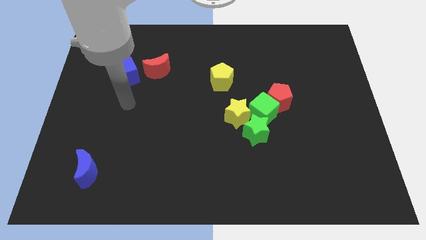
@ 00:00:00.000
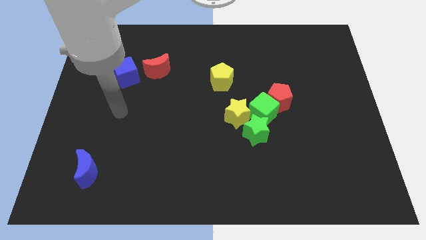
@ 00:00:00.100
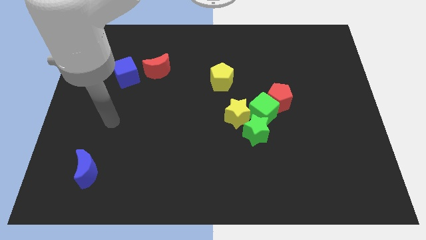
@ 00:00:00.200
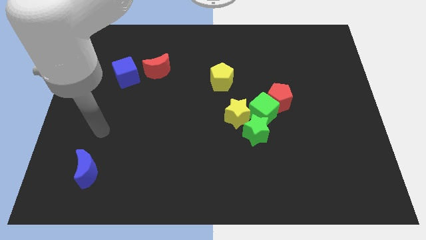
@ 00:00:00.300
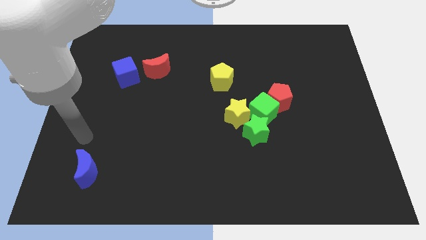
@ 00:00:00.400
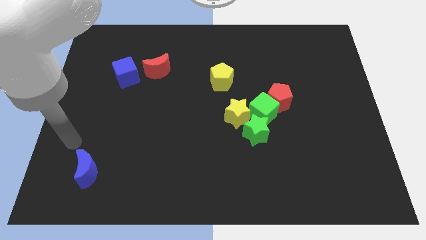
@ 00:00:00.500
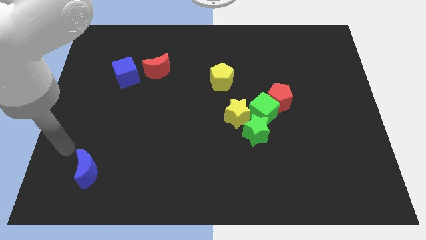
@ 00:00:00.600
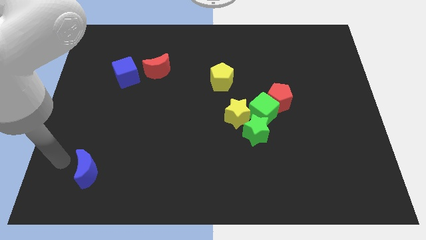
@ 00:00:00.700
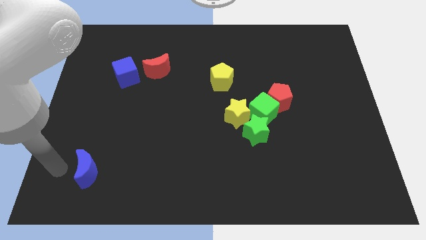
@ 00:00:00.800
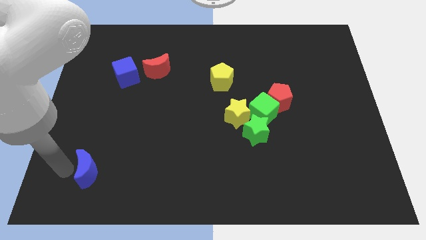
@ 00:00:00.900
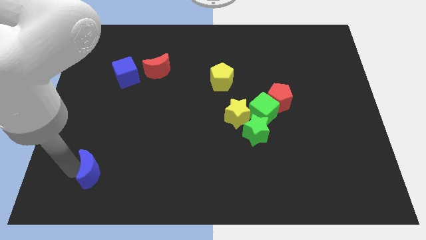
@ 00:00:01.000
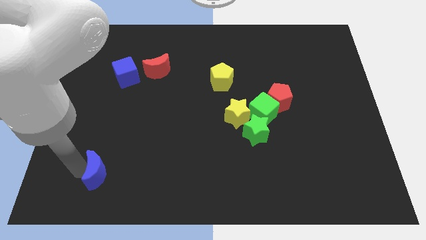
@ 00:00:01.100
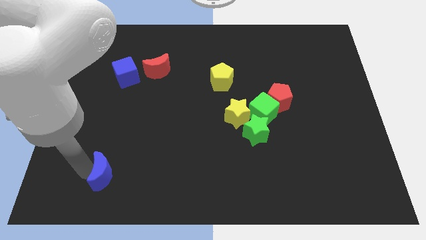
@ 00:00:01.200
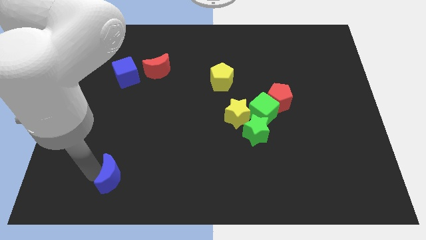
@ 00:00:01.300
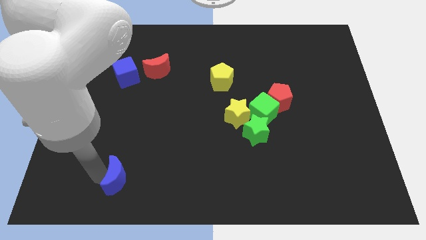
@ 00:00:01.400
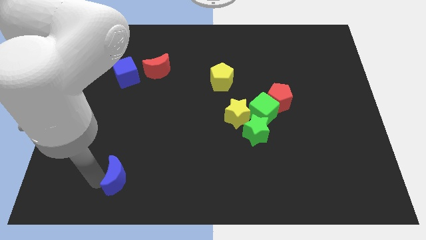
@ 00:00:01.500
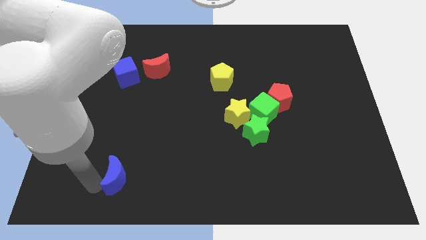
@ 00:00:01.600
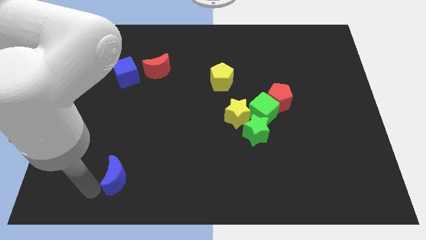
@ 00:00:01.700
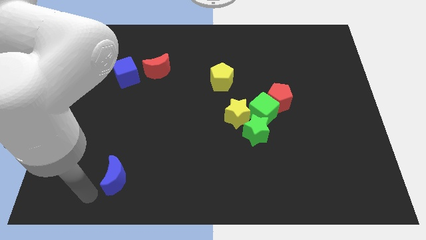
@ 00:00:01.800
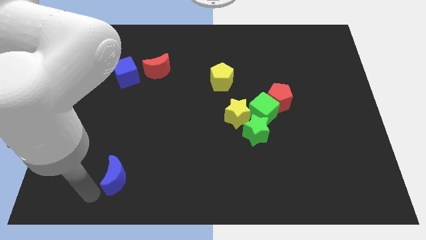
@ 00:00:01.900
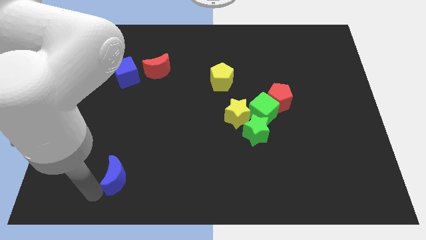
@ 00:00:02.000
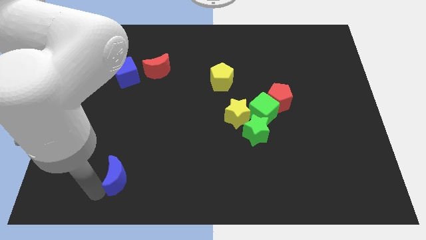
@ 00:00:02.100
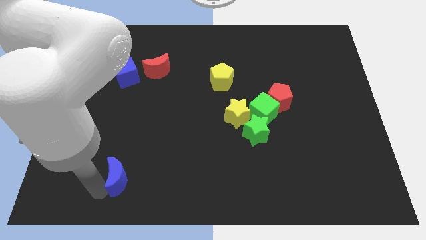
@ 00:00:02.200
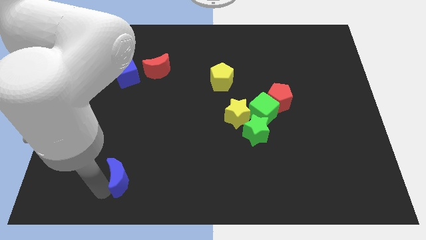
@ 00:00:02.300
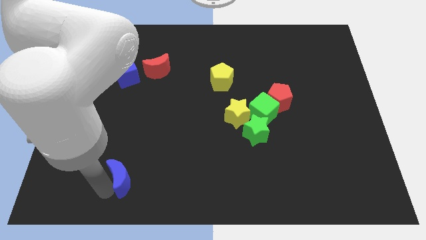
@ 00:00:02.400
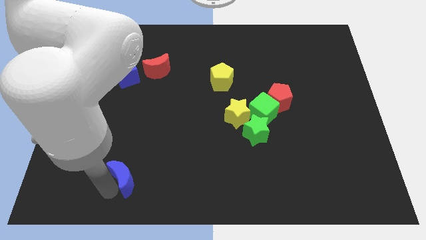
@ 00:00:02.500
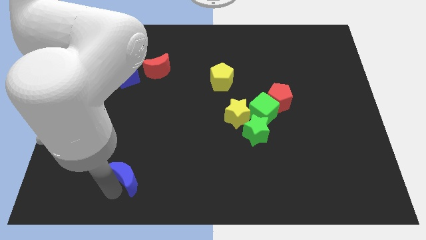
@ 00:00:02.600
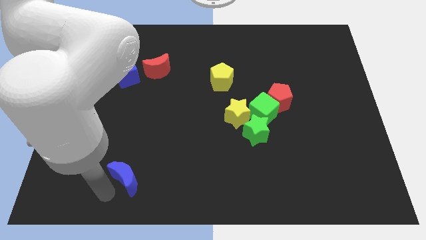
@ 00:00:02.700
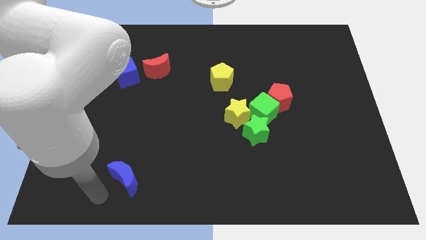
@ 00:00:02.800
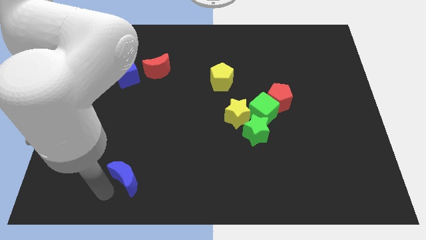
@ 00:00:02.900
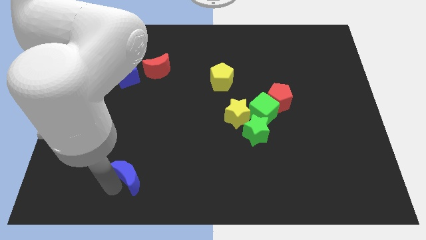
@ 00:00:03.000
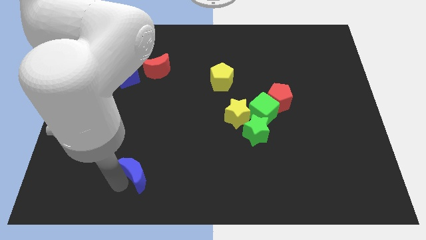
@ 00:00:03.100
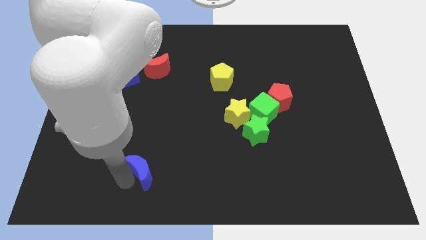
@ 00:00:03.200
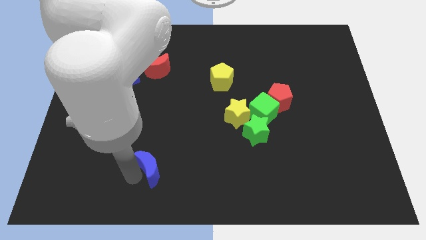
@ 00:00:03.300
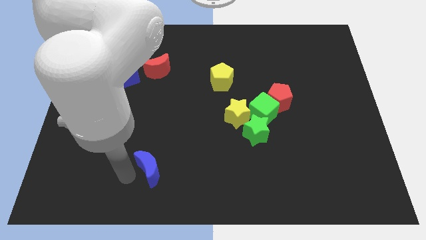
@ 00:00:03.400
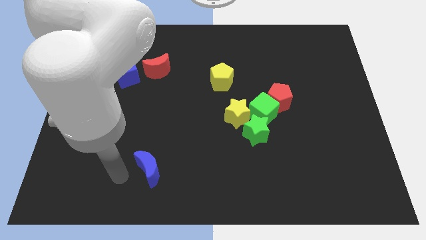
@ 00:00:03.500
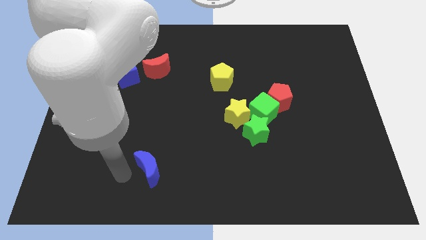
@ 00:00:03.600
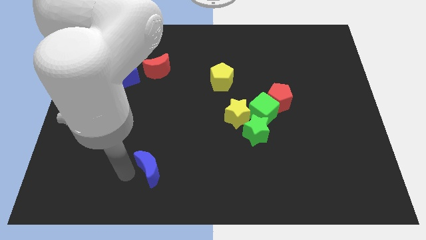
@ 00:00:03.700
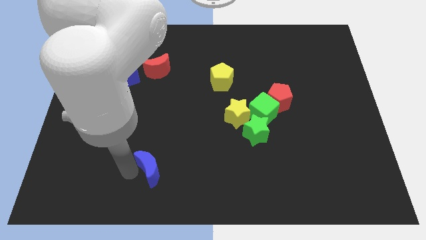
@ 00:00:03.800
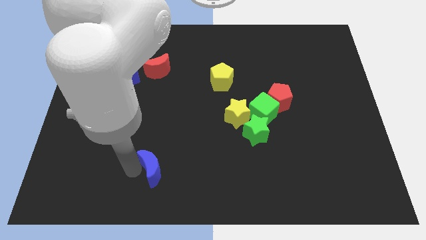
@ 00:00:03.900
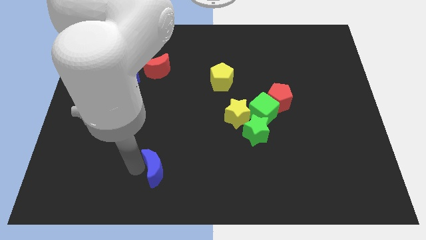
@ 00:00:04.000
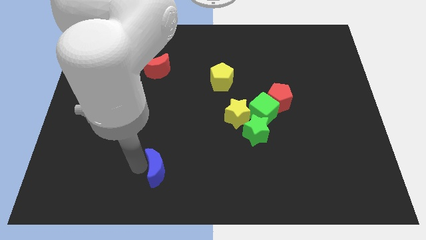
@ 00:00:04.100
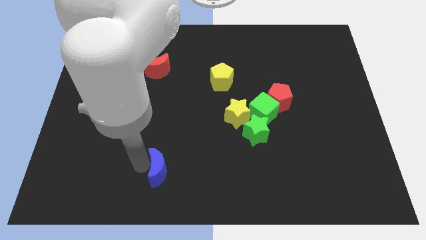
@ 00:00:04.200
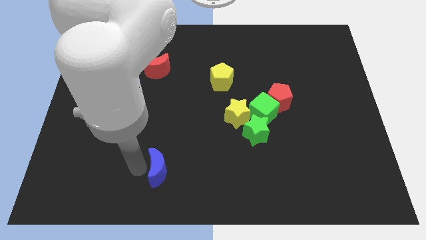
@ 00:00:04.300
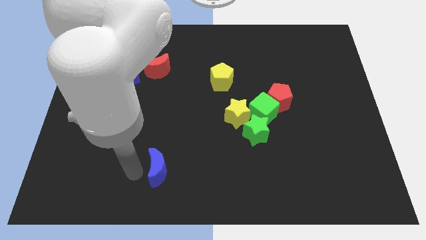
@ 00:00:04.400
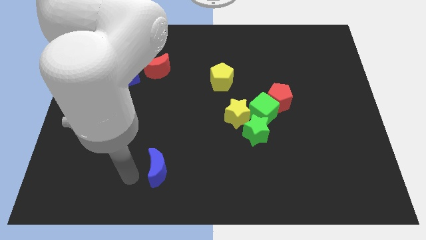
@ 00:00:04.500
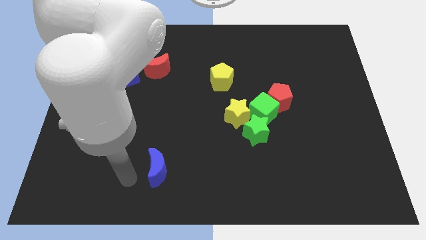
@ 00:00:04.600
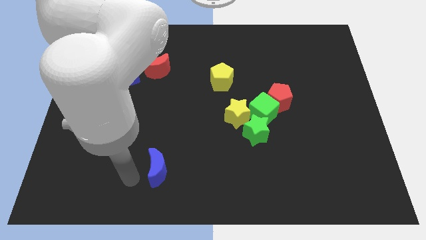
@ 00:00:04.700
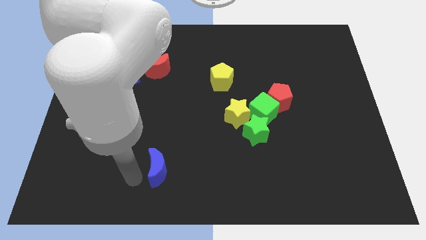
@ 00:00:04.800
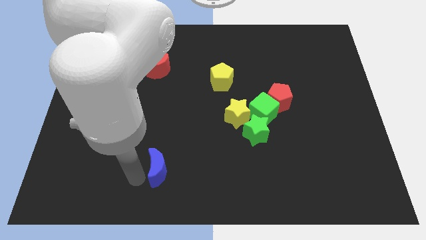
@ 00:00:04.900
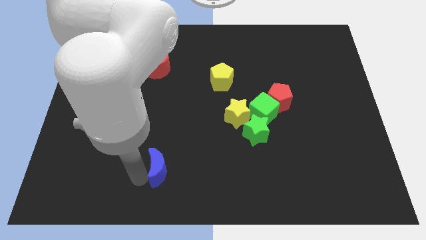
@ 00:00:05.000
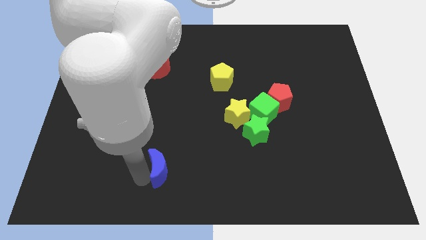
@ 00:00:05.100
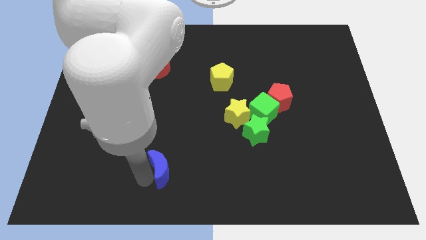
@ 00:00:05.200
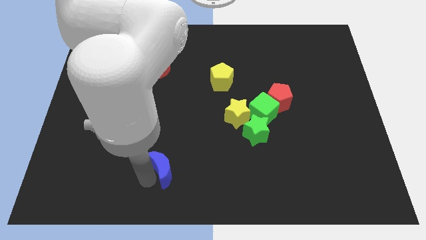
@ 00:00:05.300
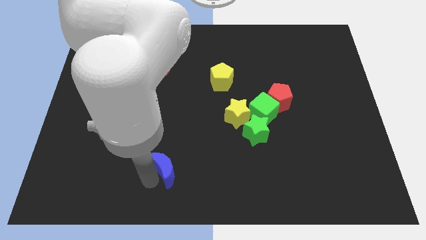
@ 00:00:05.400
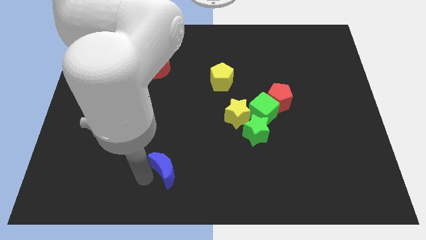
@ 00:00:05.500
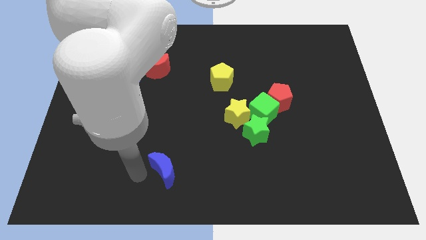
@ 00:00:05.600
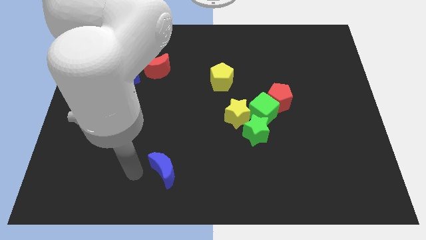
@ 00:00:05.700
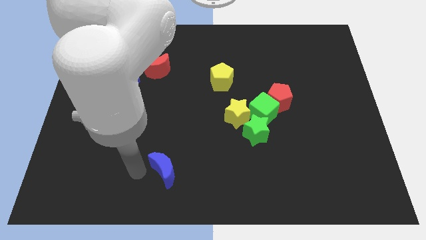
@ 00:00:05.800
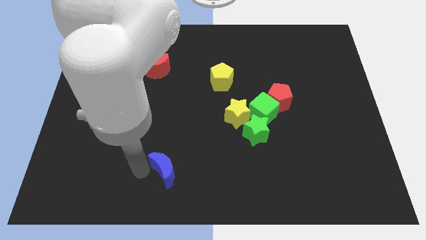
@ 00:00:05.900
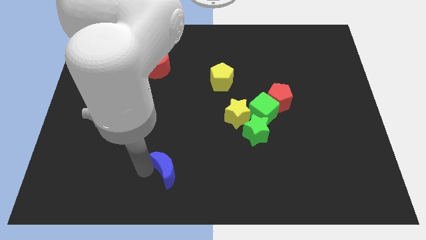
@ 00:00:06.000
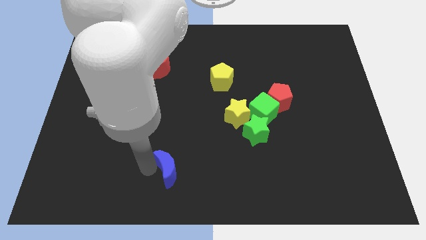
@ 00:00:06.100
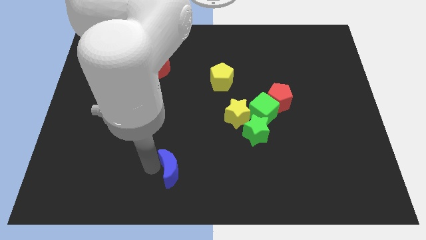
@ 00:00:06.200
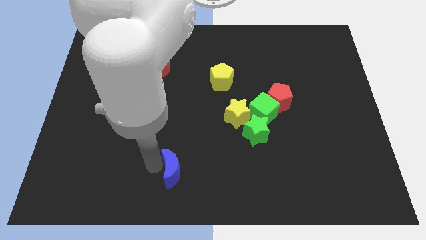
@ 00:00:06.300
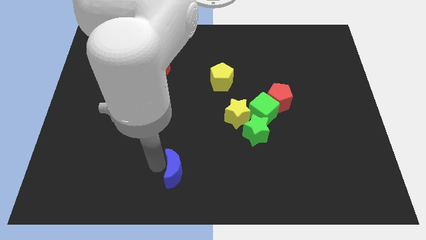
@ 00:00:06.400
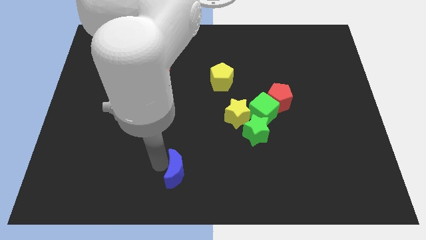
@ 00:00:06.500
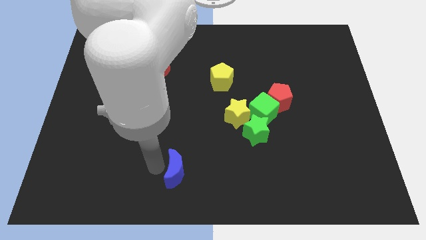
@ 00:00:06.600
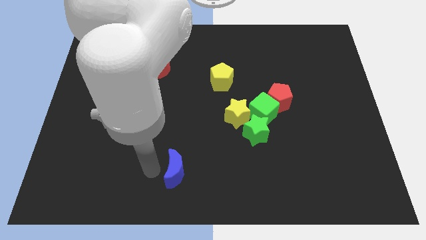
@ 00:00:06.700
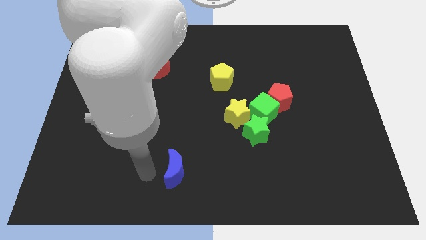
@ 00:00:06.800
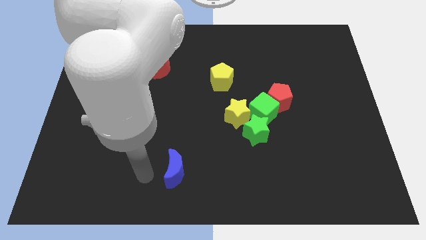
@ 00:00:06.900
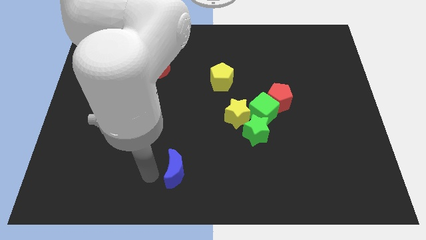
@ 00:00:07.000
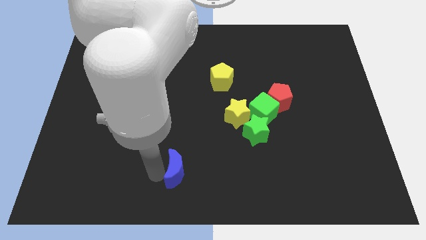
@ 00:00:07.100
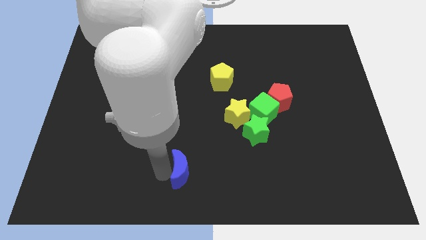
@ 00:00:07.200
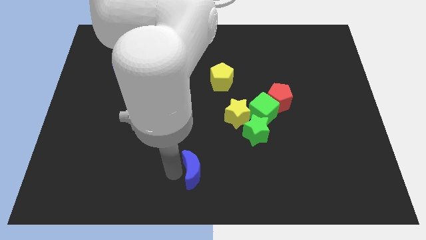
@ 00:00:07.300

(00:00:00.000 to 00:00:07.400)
move the blue moon right

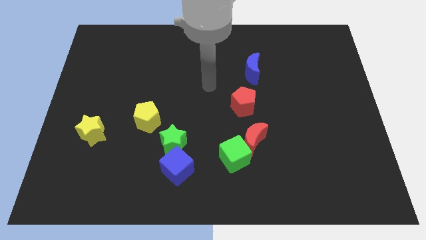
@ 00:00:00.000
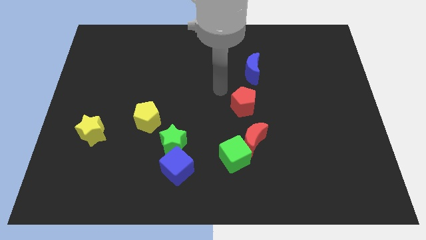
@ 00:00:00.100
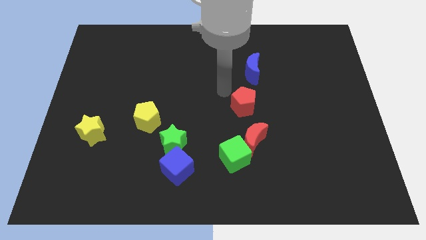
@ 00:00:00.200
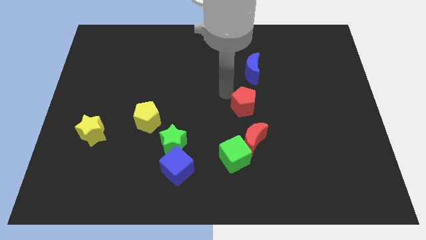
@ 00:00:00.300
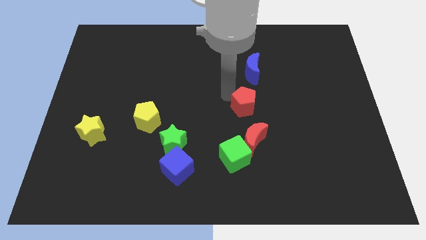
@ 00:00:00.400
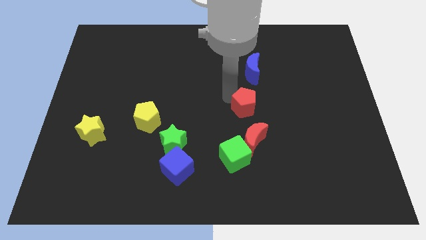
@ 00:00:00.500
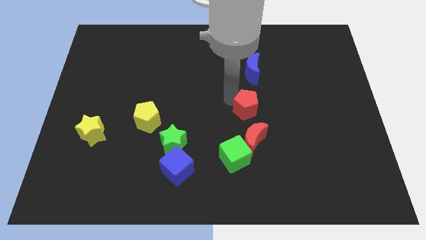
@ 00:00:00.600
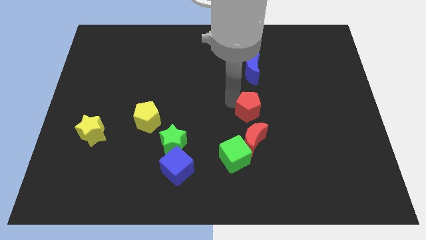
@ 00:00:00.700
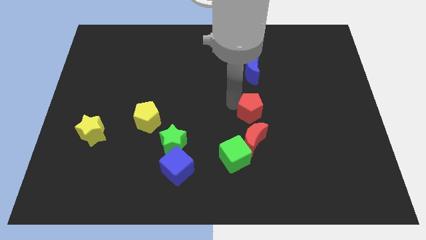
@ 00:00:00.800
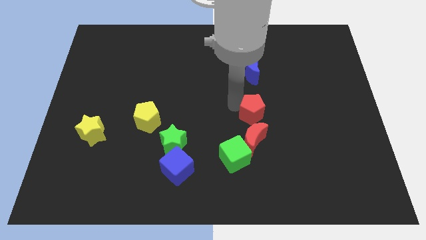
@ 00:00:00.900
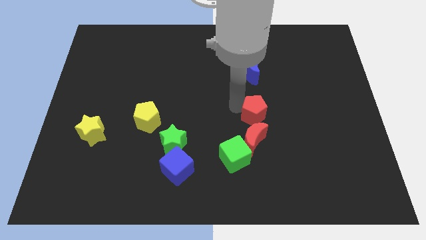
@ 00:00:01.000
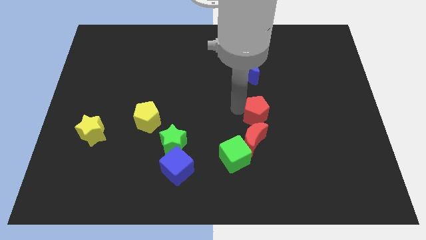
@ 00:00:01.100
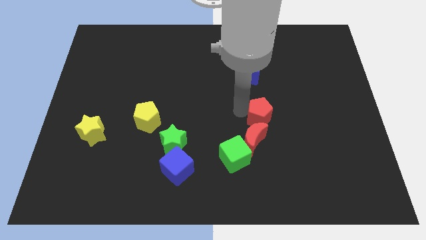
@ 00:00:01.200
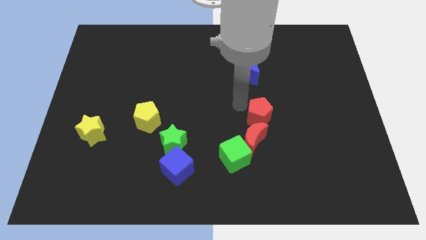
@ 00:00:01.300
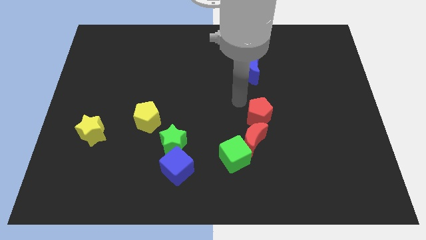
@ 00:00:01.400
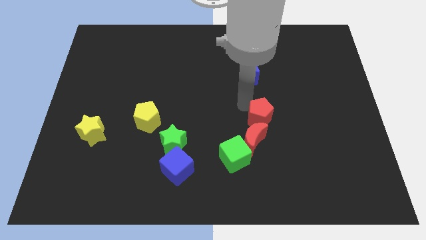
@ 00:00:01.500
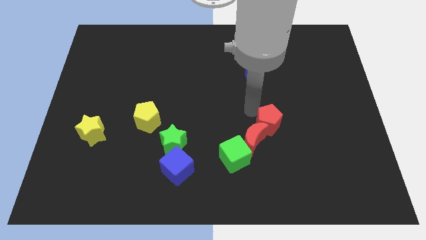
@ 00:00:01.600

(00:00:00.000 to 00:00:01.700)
push the red pentagon down and right a little
